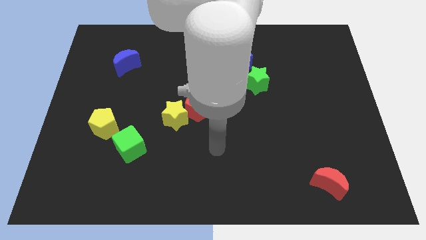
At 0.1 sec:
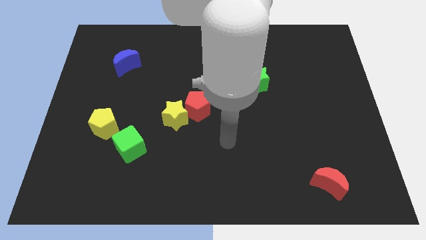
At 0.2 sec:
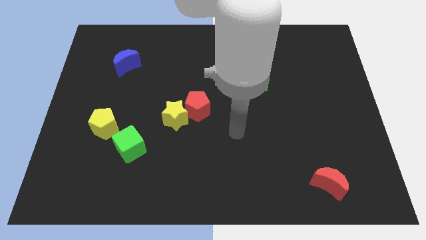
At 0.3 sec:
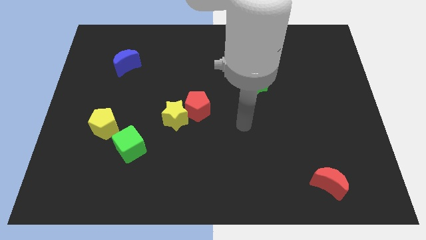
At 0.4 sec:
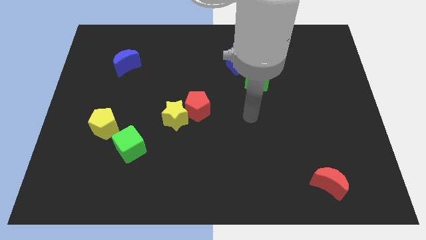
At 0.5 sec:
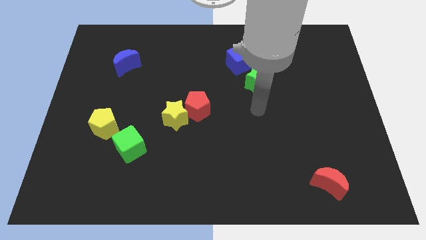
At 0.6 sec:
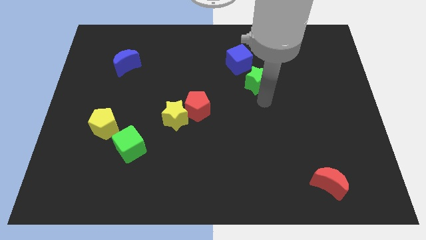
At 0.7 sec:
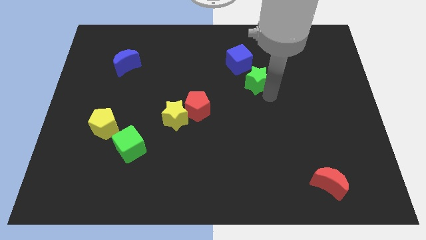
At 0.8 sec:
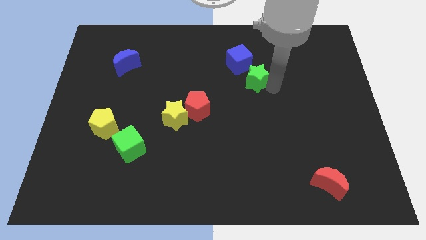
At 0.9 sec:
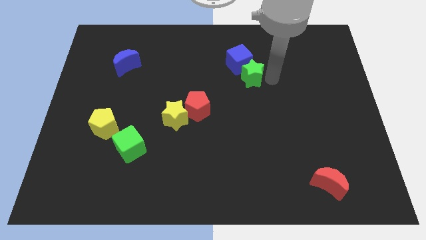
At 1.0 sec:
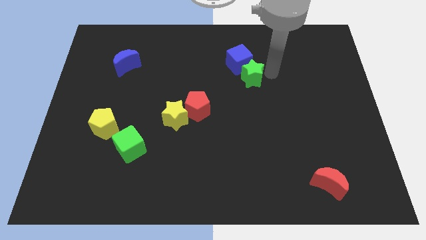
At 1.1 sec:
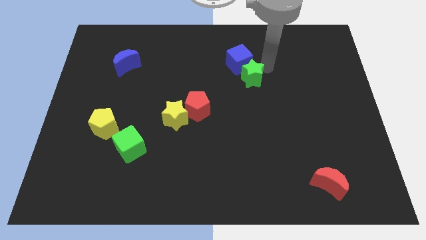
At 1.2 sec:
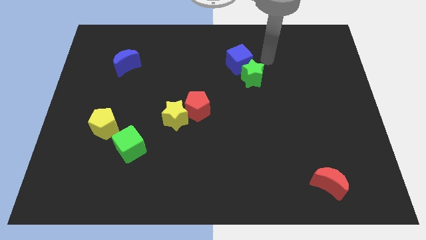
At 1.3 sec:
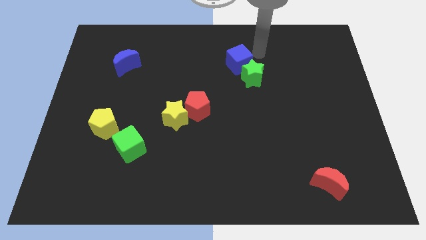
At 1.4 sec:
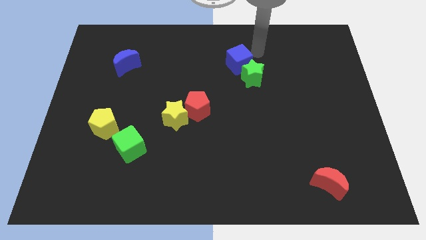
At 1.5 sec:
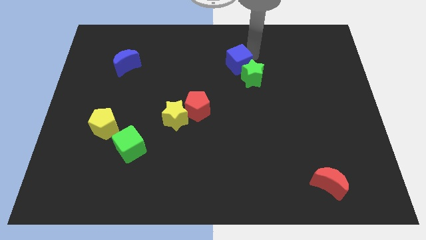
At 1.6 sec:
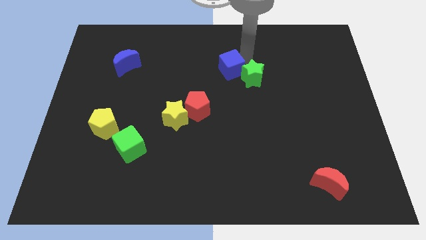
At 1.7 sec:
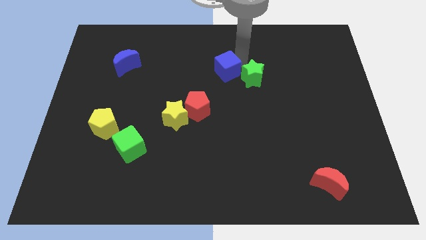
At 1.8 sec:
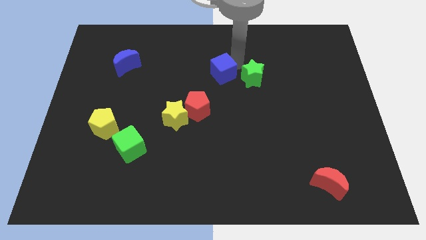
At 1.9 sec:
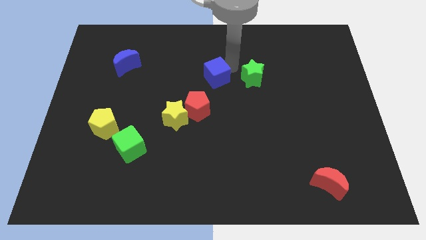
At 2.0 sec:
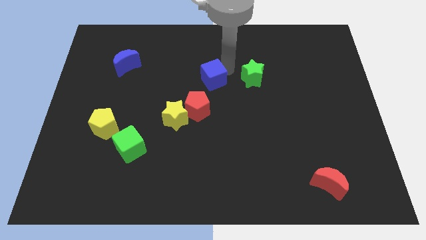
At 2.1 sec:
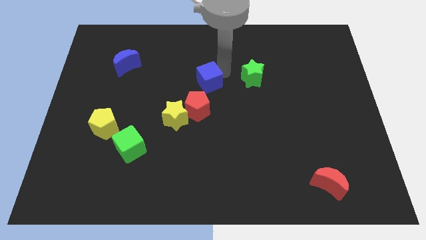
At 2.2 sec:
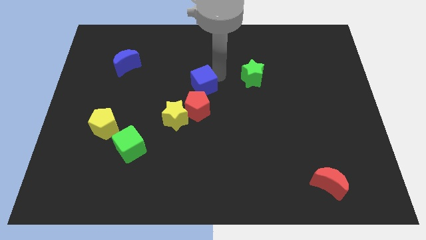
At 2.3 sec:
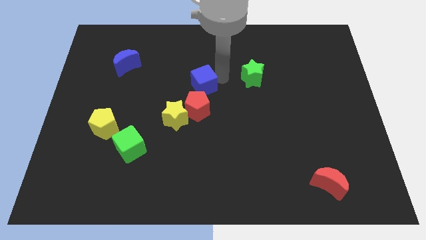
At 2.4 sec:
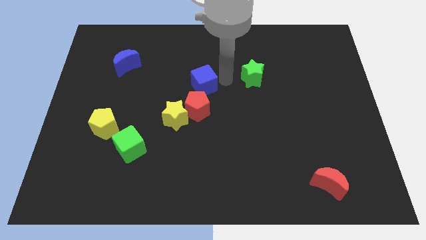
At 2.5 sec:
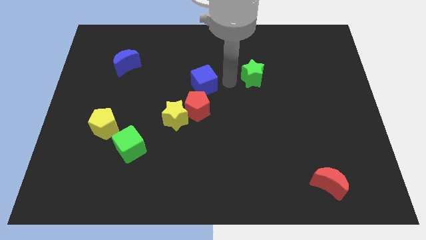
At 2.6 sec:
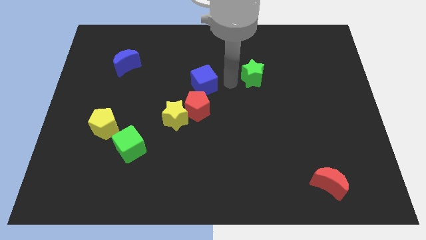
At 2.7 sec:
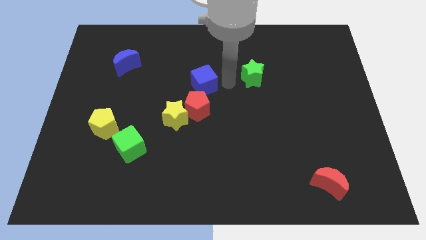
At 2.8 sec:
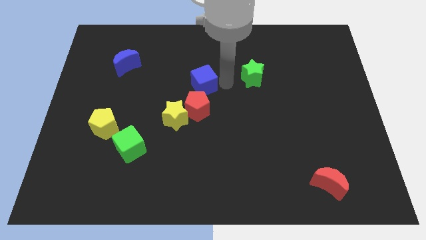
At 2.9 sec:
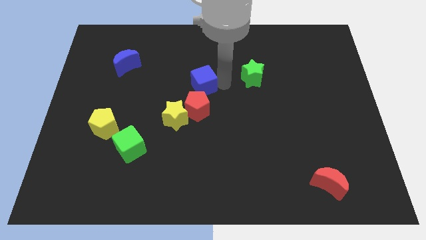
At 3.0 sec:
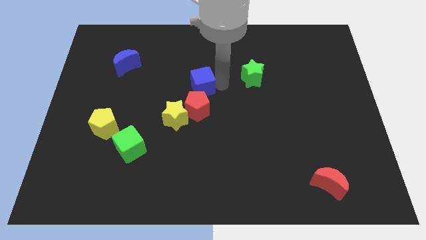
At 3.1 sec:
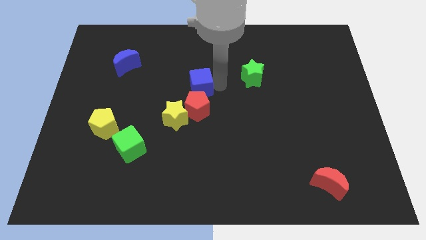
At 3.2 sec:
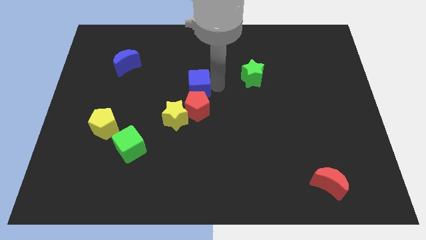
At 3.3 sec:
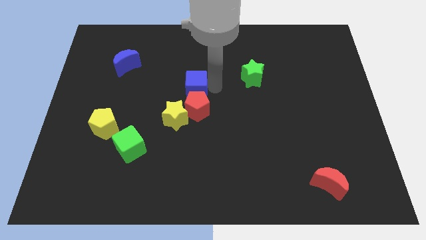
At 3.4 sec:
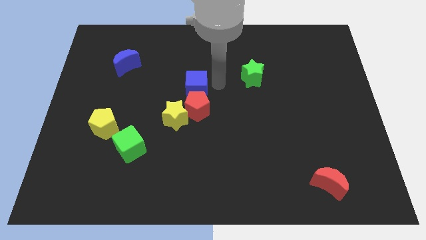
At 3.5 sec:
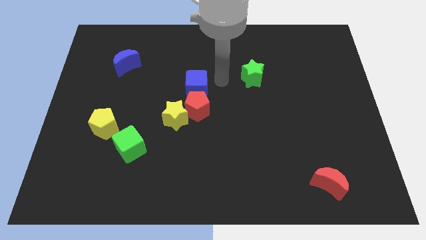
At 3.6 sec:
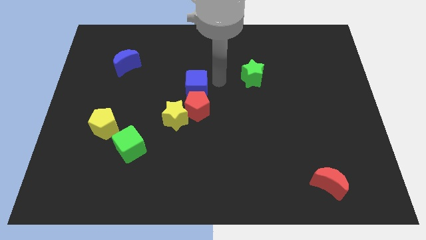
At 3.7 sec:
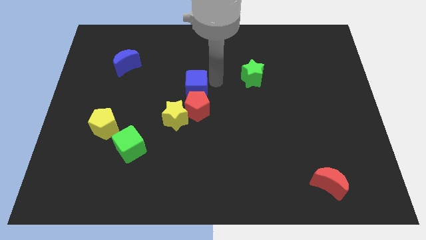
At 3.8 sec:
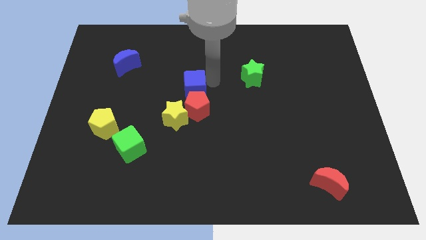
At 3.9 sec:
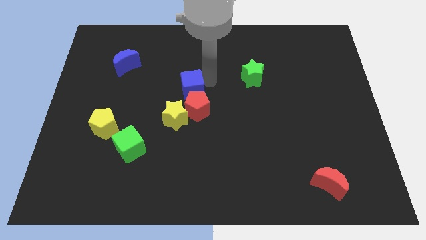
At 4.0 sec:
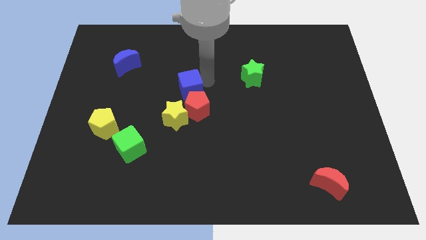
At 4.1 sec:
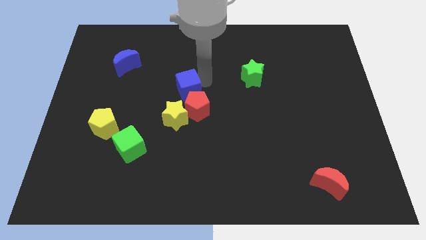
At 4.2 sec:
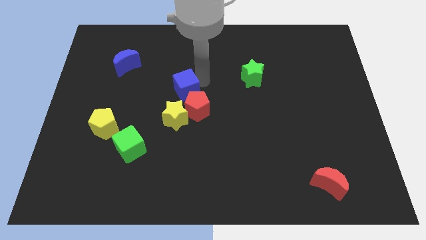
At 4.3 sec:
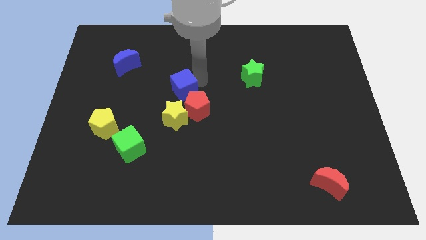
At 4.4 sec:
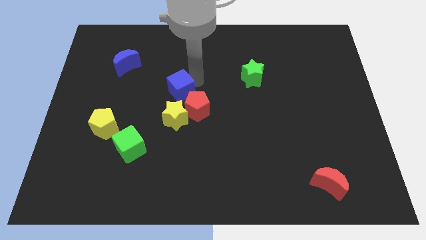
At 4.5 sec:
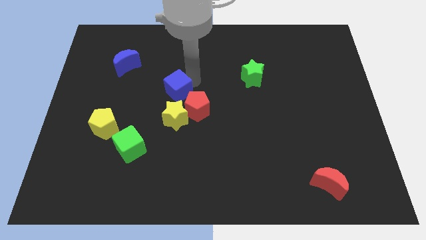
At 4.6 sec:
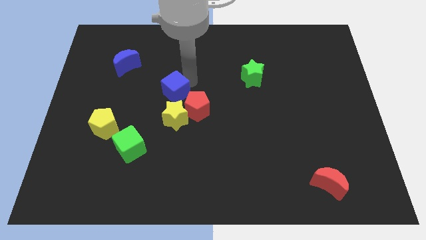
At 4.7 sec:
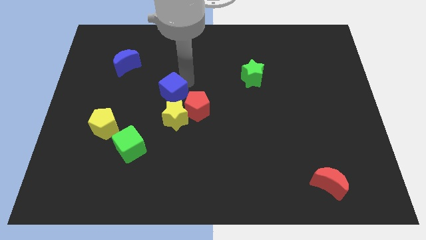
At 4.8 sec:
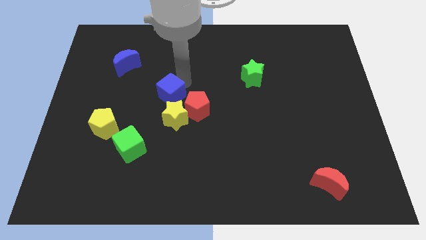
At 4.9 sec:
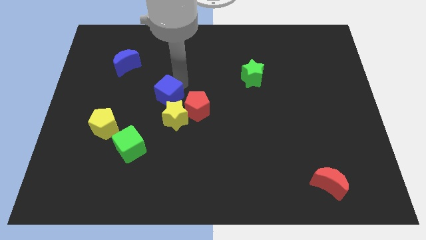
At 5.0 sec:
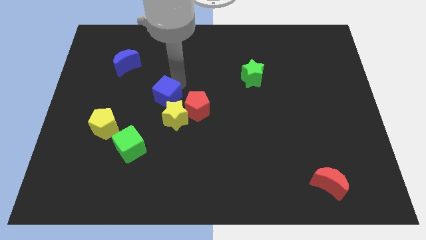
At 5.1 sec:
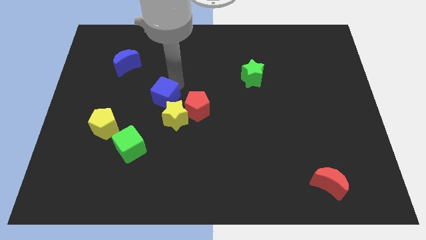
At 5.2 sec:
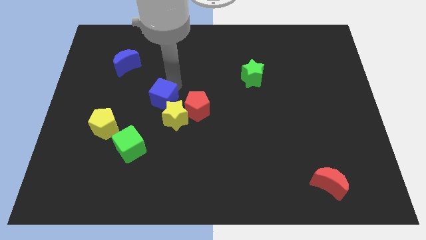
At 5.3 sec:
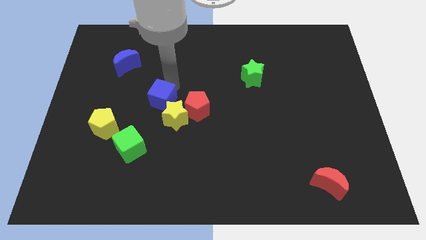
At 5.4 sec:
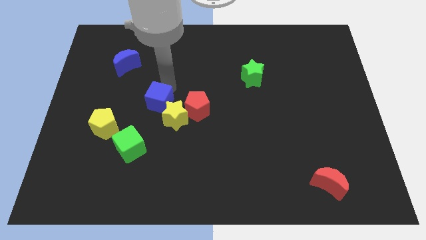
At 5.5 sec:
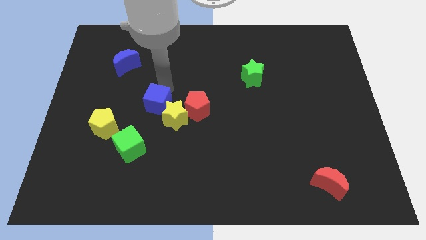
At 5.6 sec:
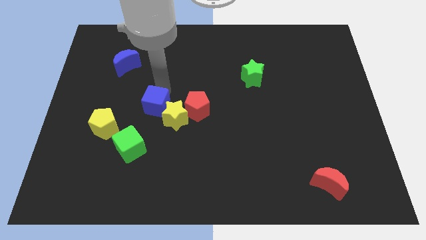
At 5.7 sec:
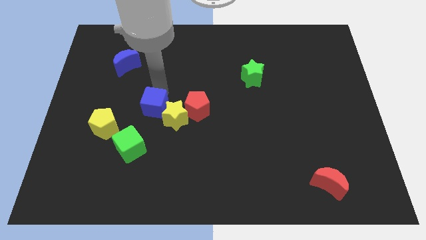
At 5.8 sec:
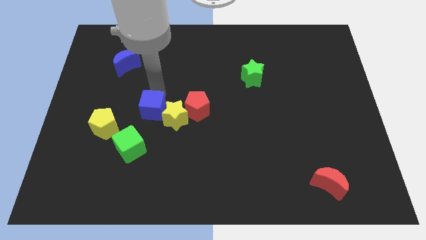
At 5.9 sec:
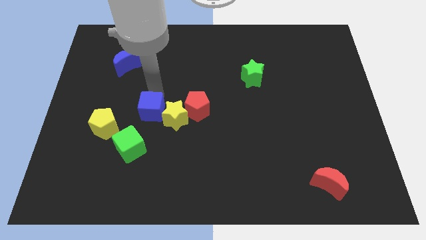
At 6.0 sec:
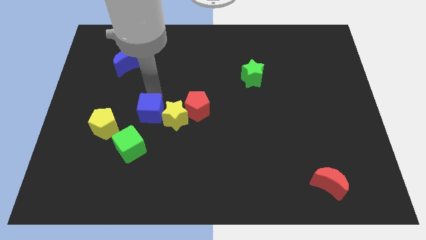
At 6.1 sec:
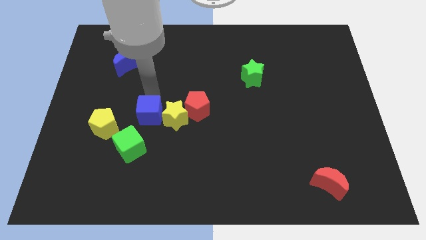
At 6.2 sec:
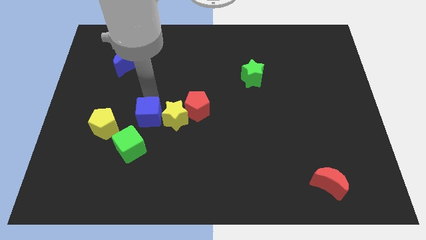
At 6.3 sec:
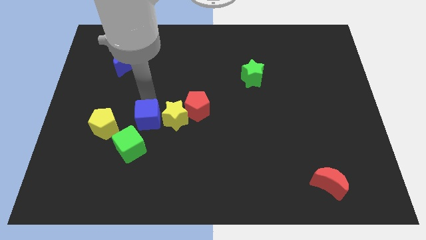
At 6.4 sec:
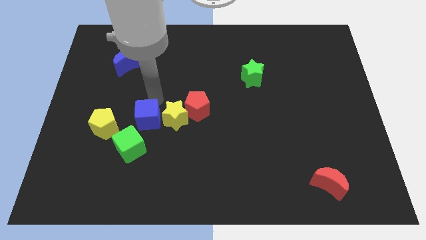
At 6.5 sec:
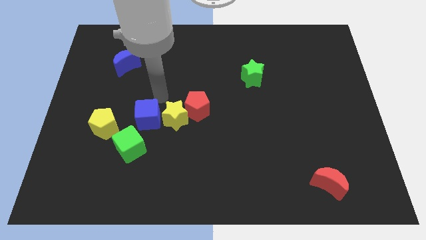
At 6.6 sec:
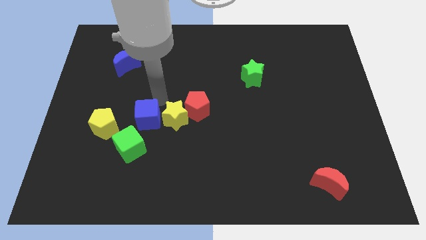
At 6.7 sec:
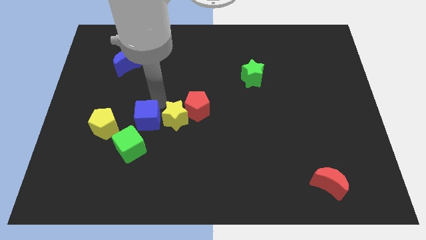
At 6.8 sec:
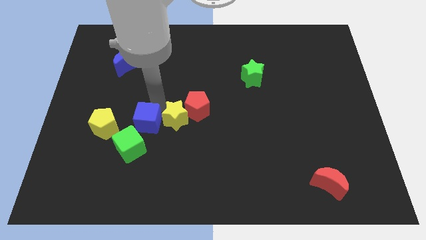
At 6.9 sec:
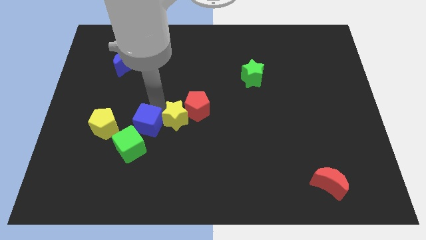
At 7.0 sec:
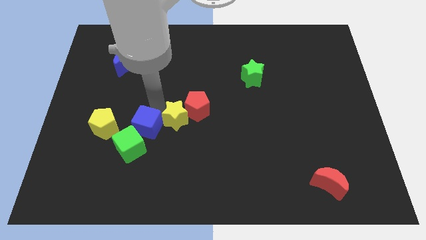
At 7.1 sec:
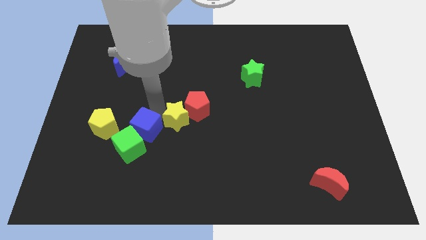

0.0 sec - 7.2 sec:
slide the blue cube to the green cube
